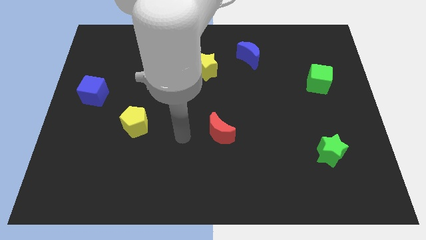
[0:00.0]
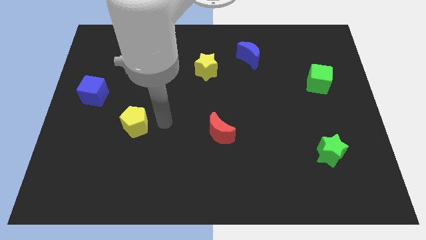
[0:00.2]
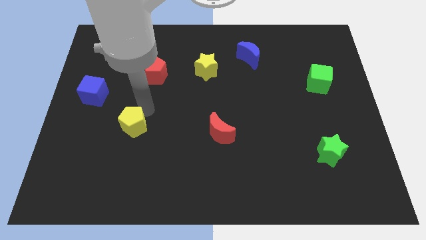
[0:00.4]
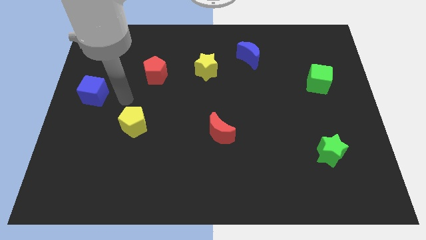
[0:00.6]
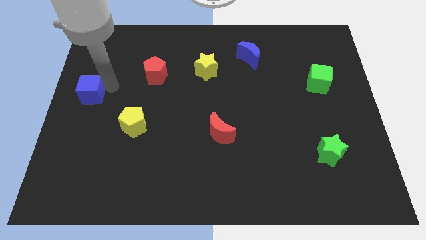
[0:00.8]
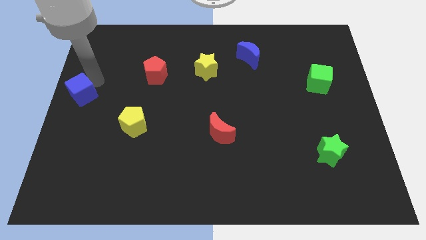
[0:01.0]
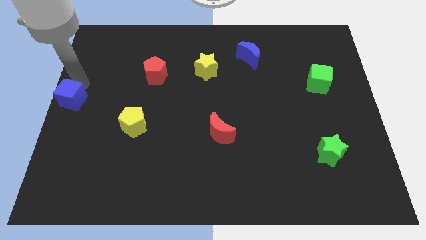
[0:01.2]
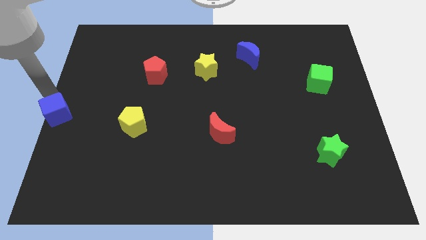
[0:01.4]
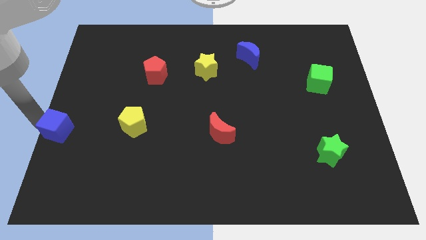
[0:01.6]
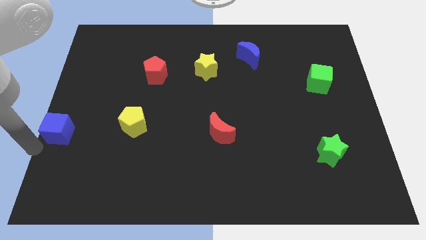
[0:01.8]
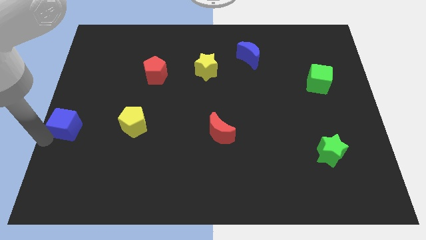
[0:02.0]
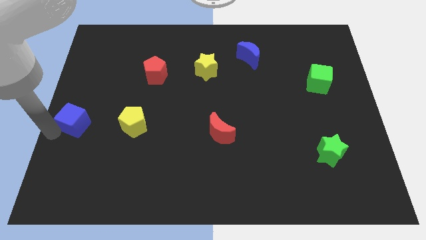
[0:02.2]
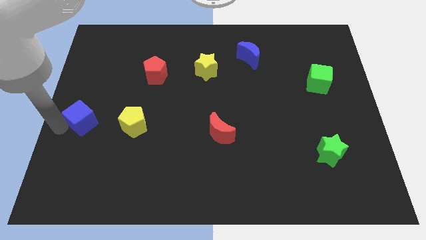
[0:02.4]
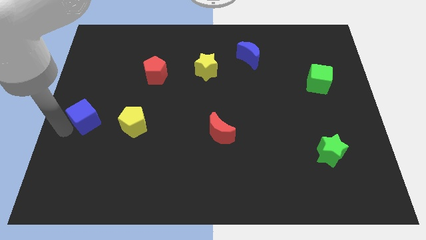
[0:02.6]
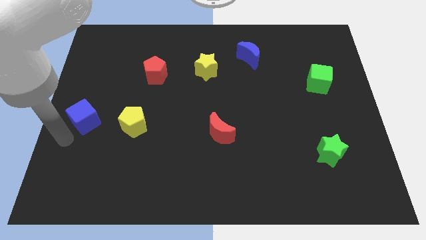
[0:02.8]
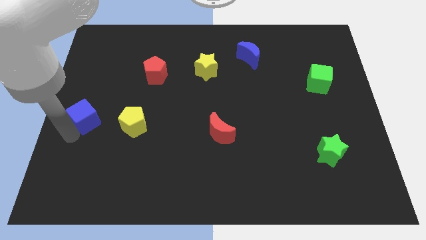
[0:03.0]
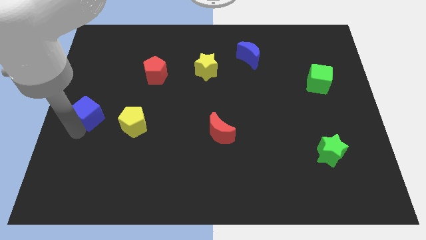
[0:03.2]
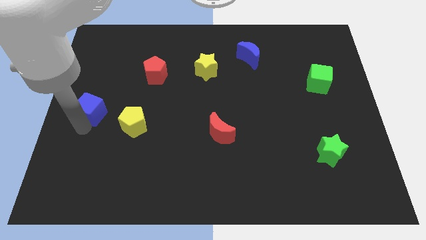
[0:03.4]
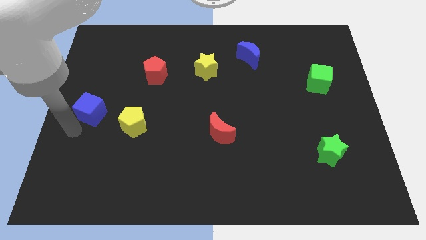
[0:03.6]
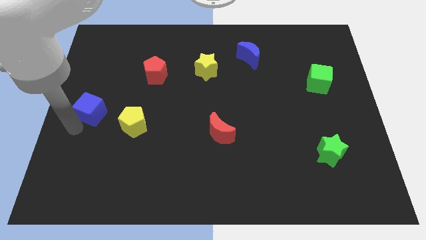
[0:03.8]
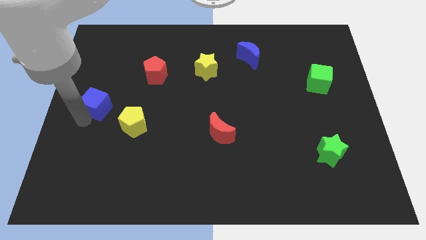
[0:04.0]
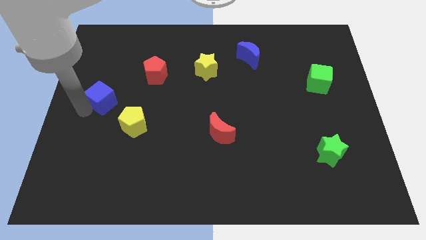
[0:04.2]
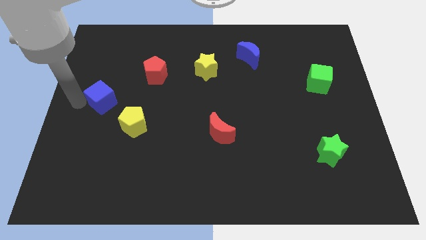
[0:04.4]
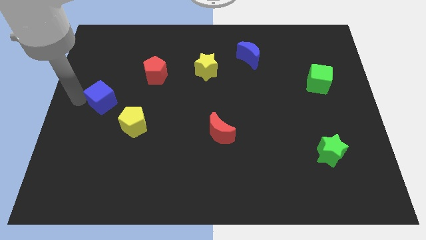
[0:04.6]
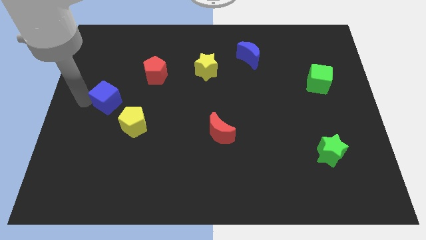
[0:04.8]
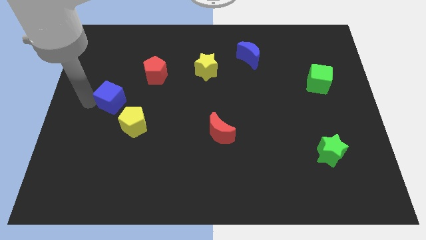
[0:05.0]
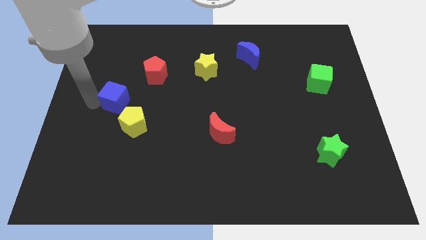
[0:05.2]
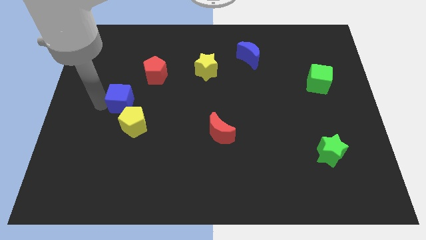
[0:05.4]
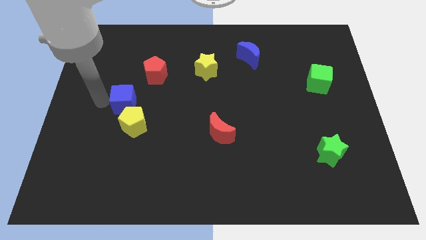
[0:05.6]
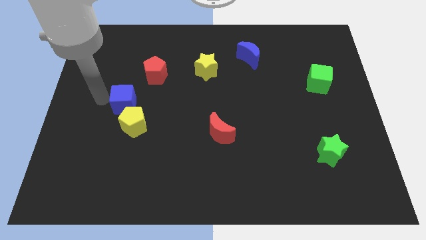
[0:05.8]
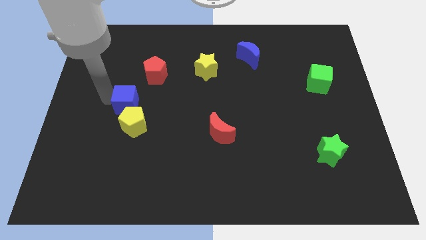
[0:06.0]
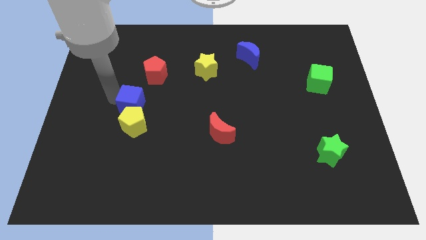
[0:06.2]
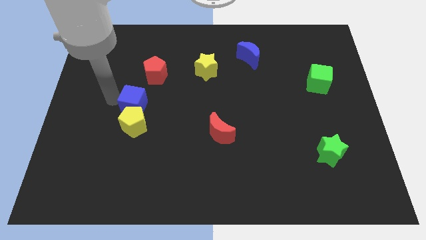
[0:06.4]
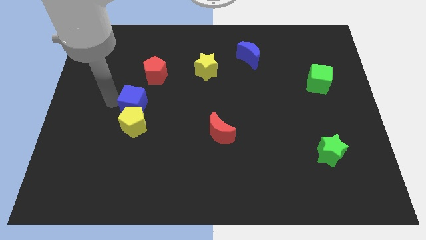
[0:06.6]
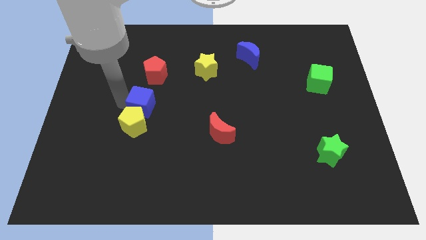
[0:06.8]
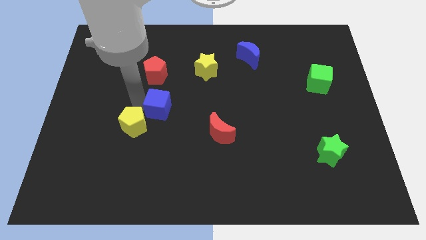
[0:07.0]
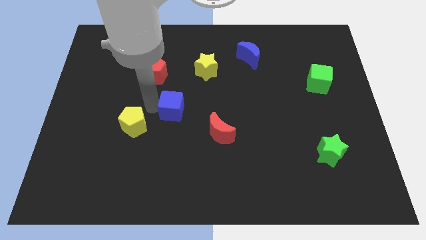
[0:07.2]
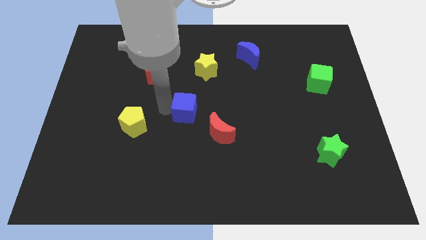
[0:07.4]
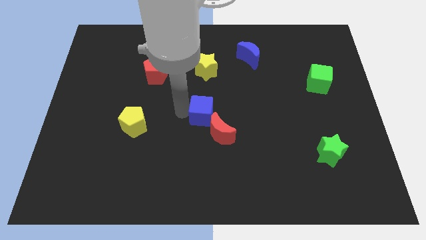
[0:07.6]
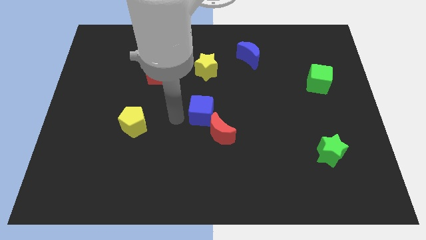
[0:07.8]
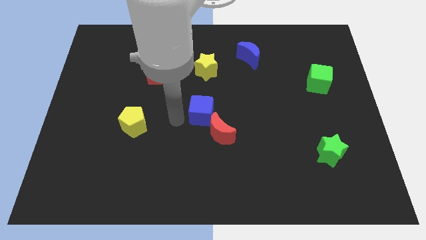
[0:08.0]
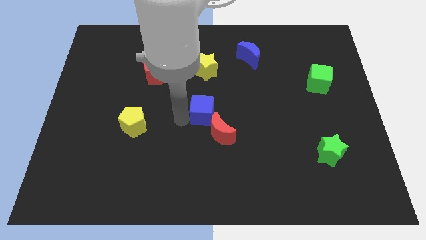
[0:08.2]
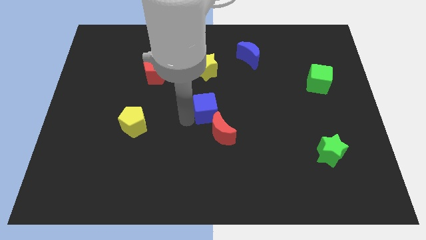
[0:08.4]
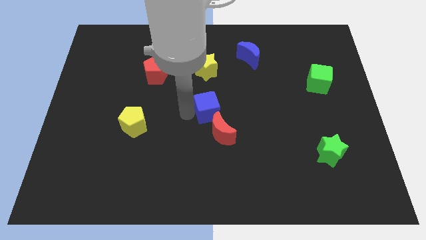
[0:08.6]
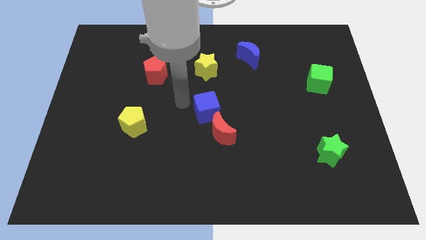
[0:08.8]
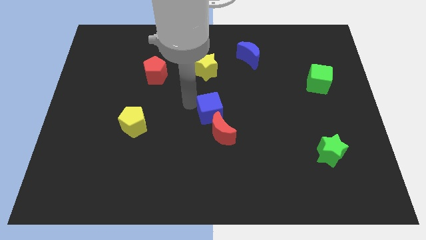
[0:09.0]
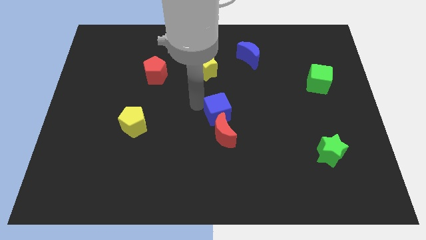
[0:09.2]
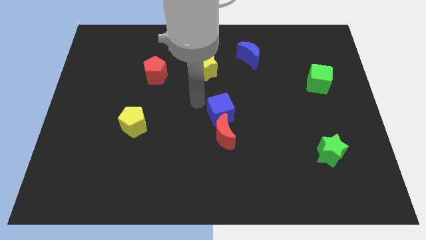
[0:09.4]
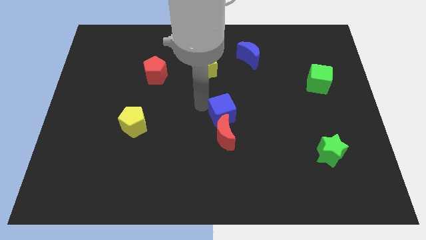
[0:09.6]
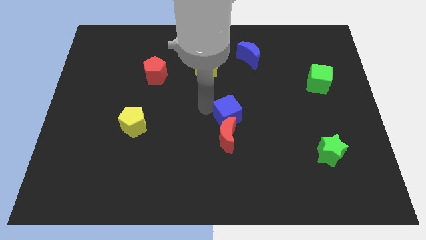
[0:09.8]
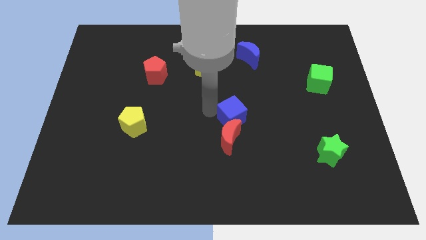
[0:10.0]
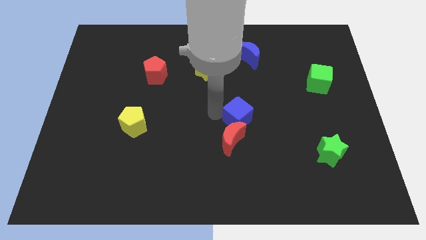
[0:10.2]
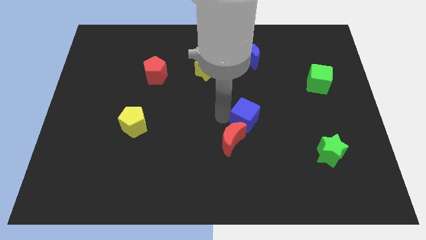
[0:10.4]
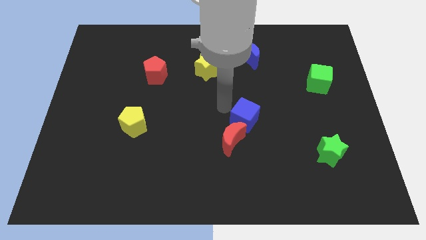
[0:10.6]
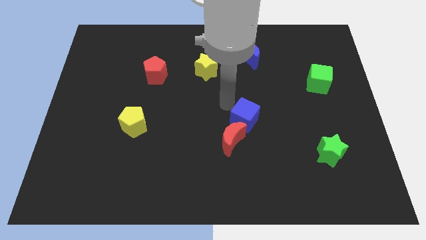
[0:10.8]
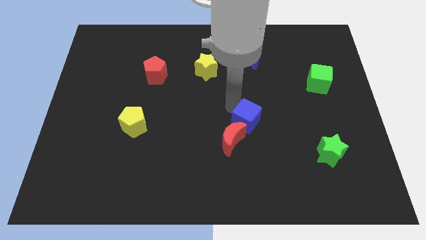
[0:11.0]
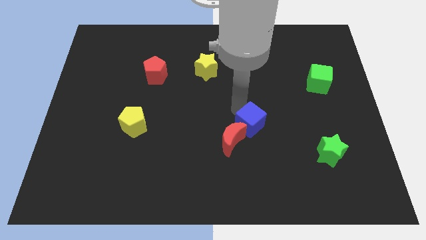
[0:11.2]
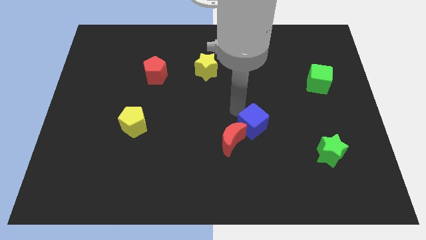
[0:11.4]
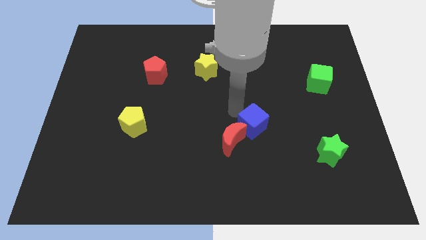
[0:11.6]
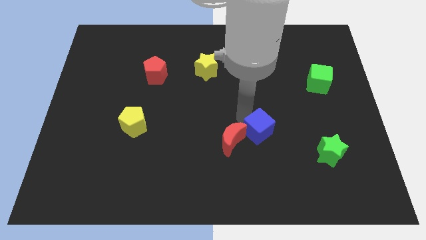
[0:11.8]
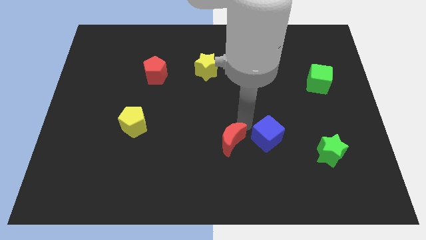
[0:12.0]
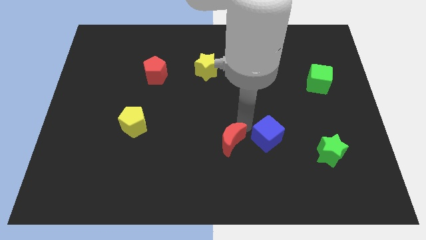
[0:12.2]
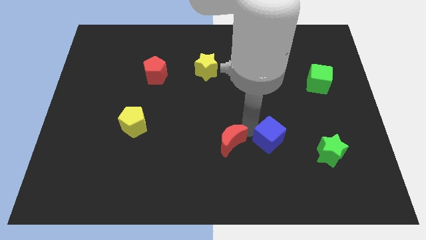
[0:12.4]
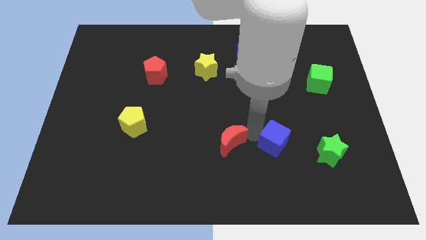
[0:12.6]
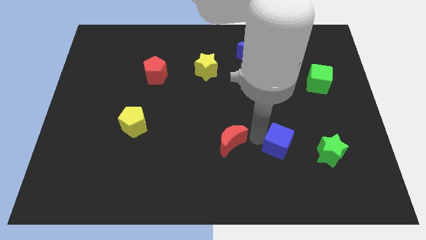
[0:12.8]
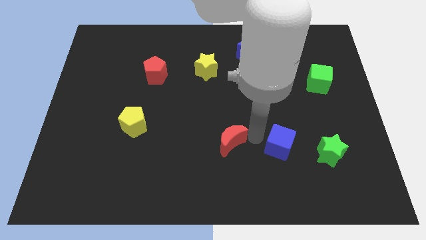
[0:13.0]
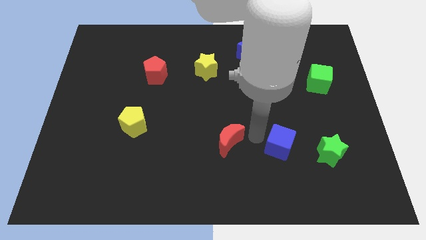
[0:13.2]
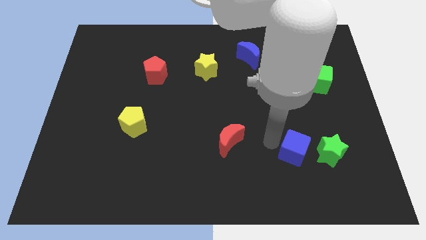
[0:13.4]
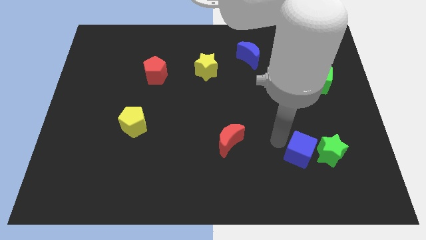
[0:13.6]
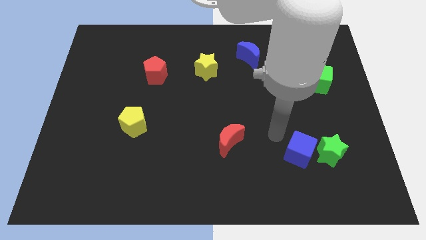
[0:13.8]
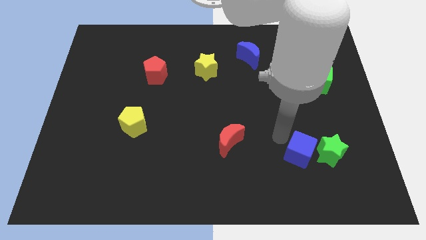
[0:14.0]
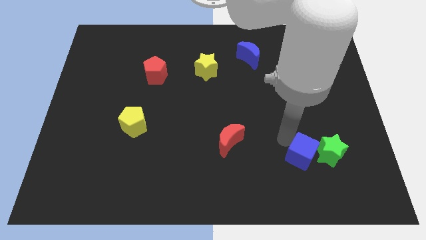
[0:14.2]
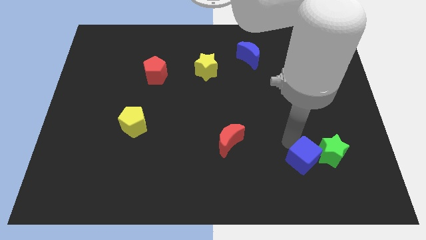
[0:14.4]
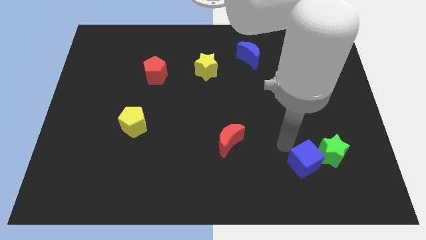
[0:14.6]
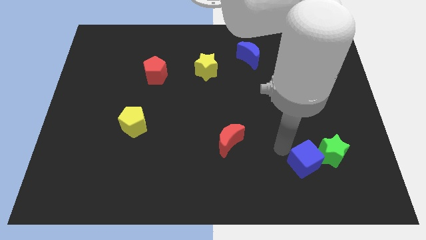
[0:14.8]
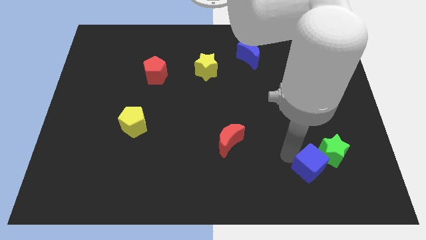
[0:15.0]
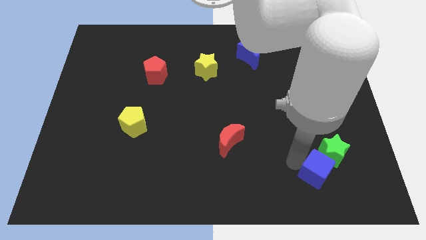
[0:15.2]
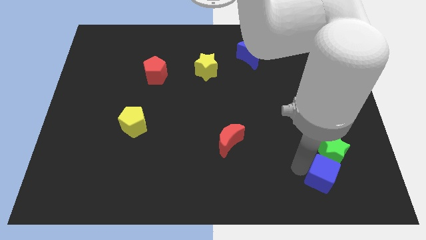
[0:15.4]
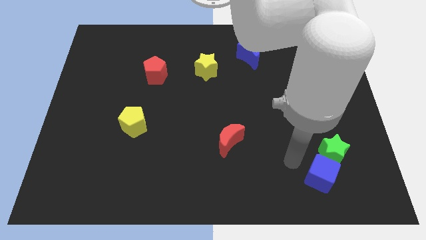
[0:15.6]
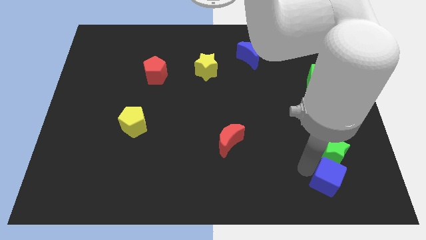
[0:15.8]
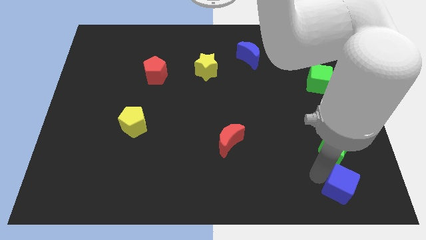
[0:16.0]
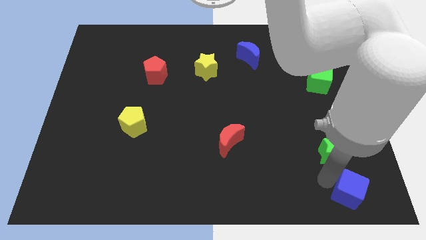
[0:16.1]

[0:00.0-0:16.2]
move the blue cube to the bottom right
